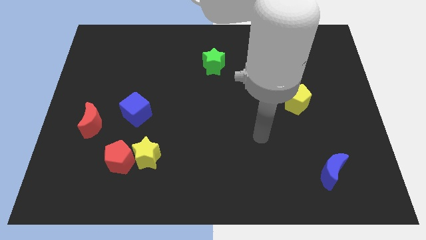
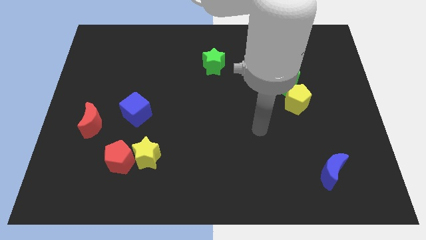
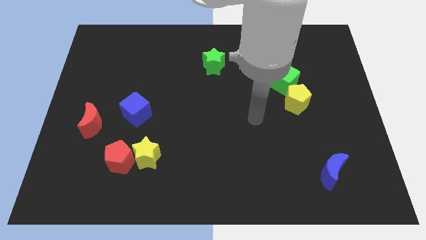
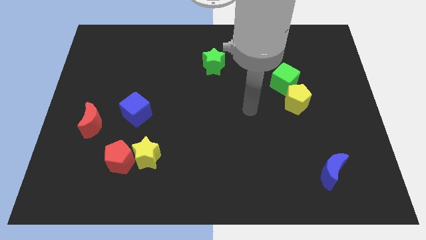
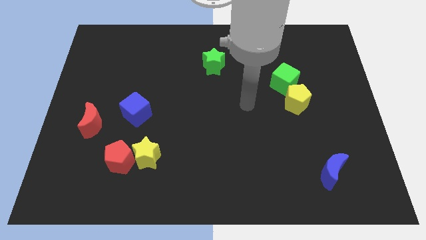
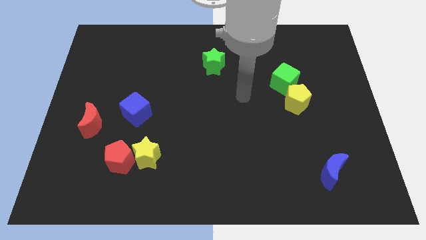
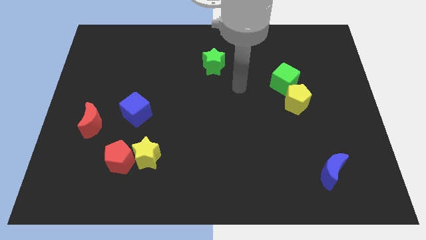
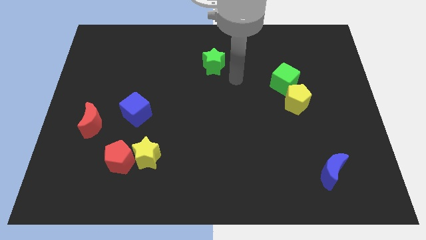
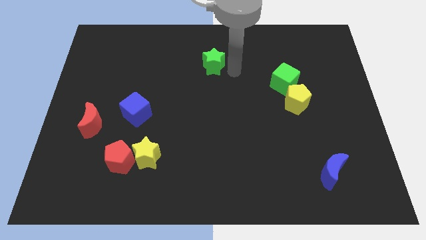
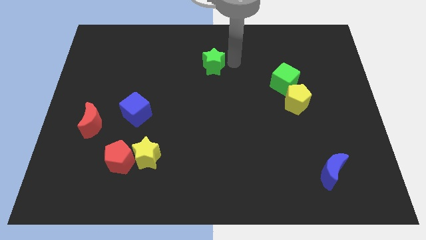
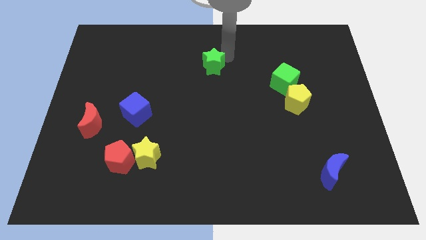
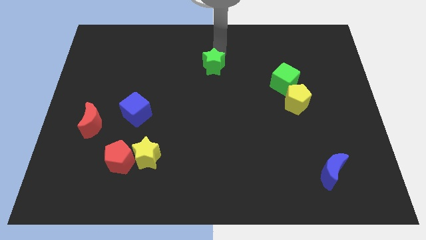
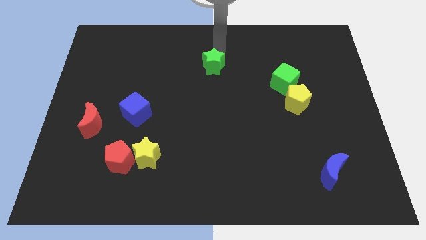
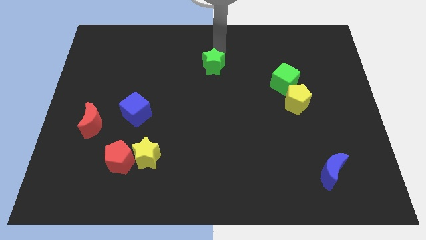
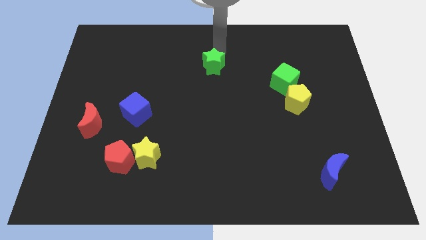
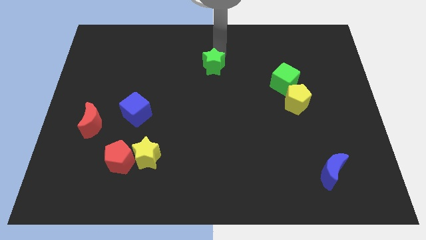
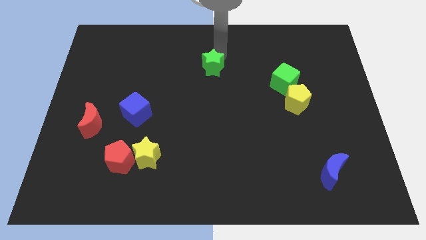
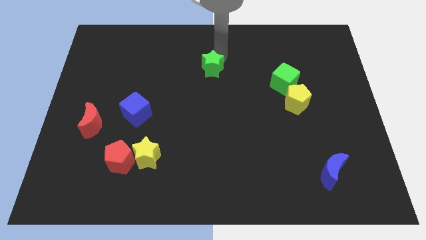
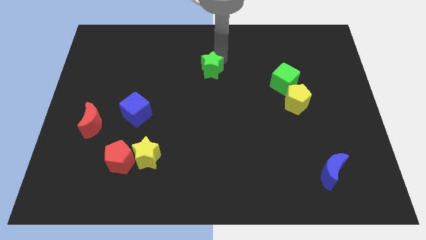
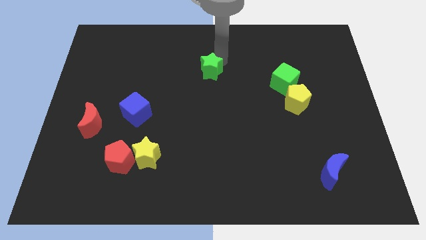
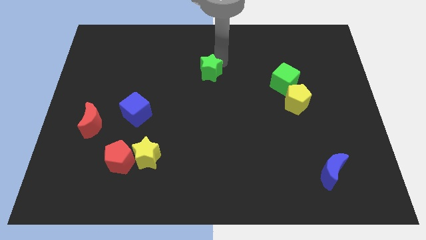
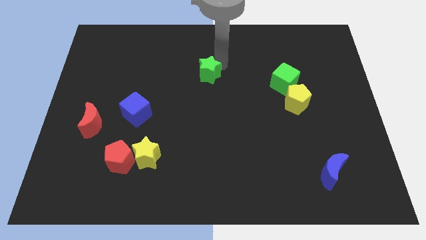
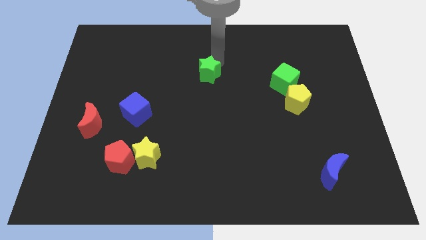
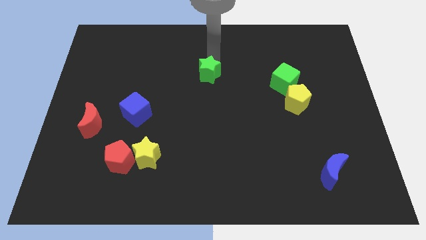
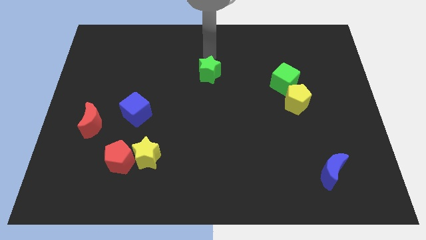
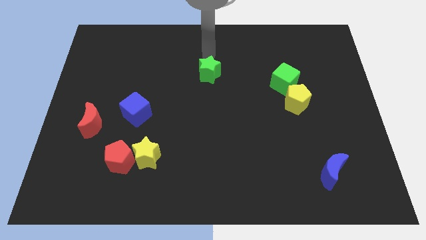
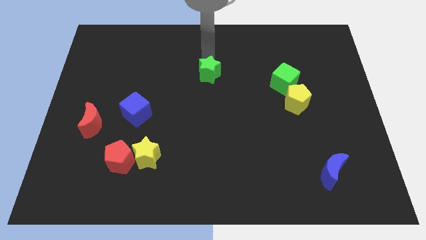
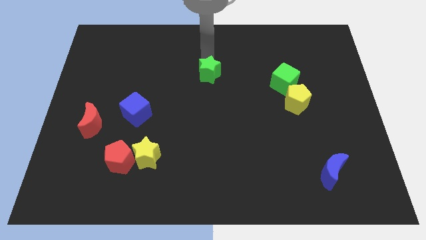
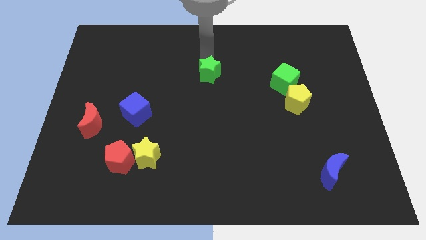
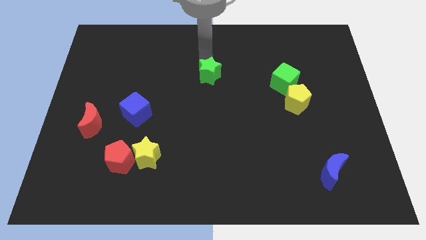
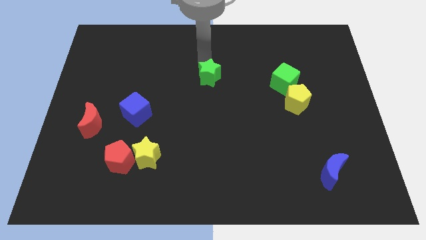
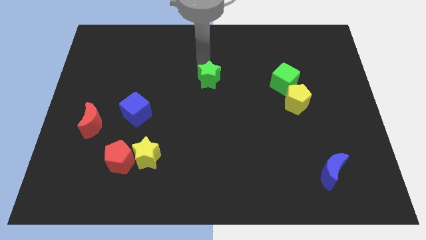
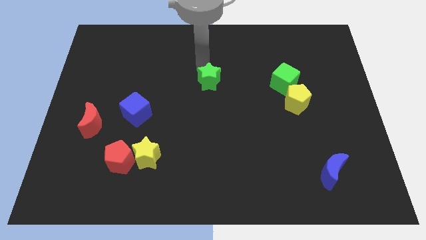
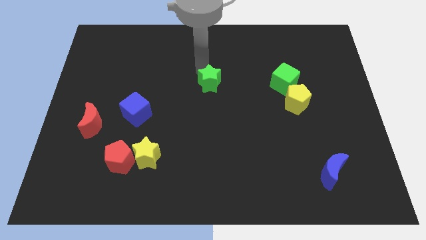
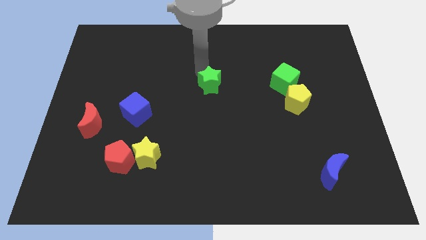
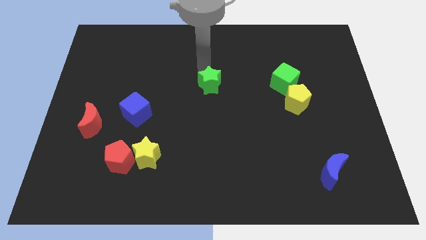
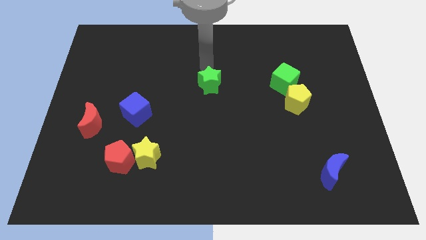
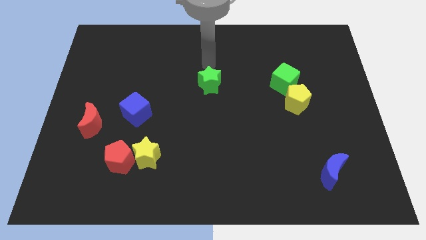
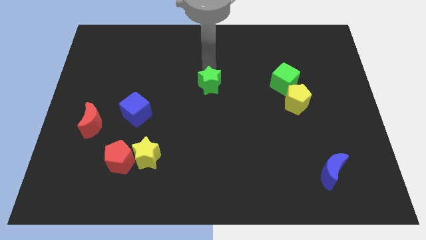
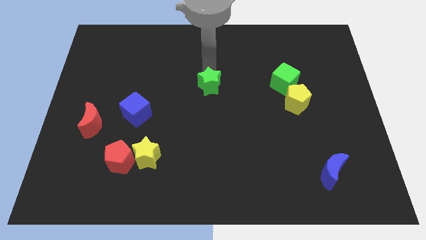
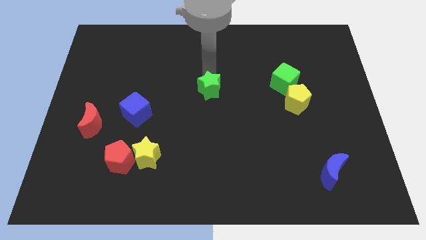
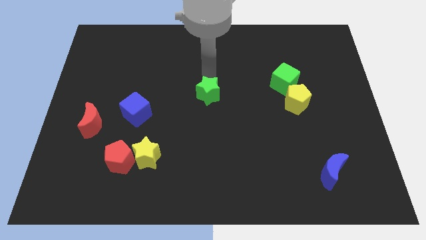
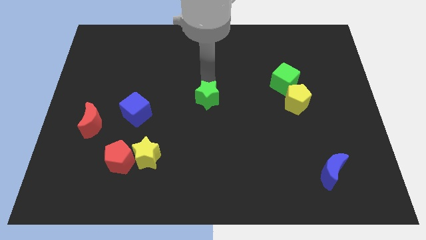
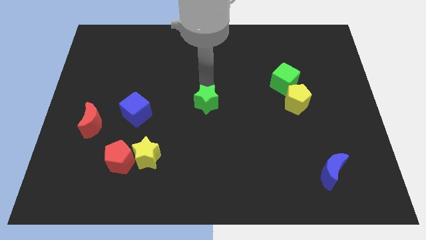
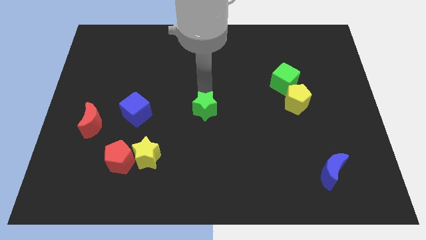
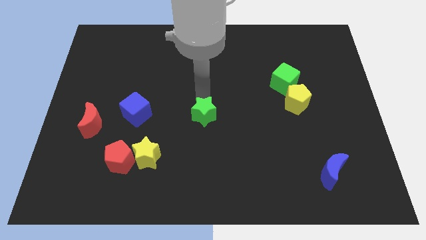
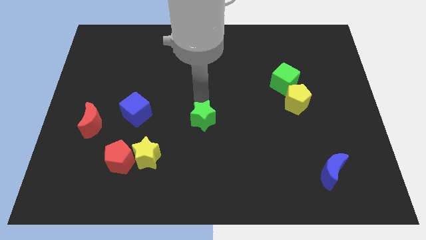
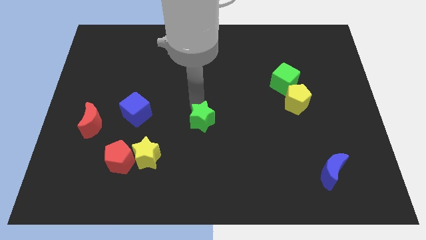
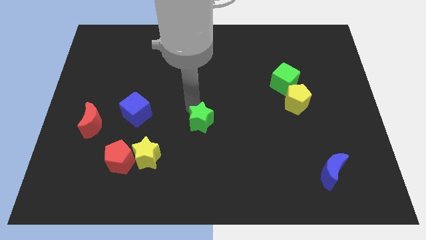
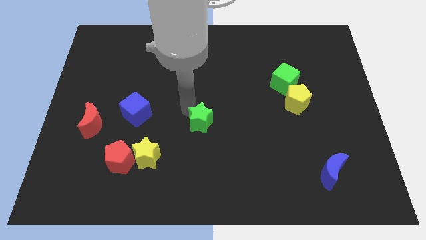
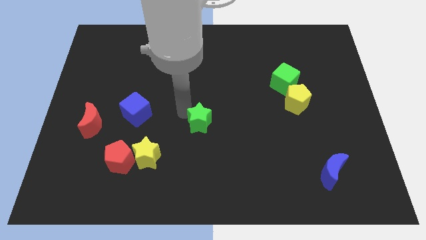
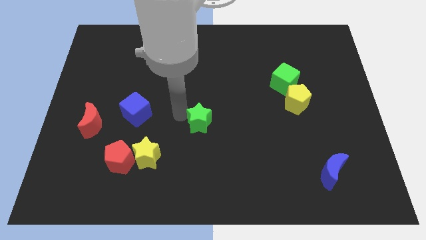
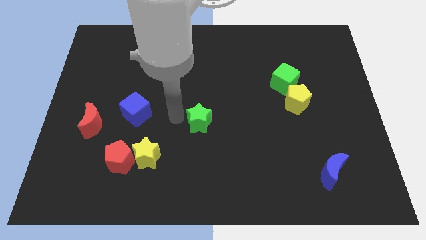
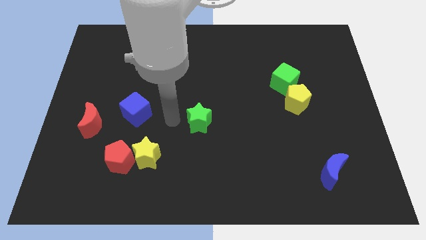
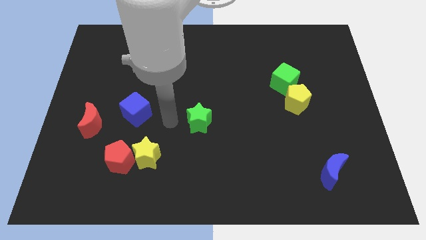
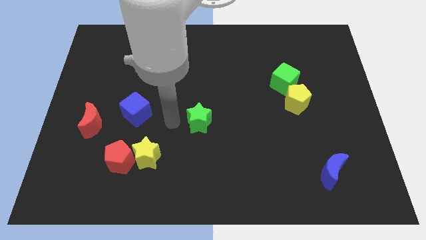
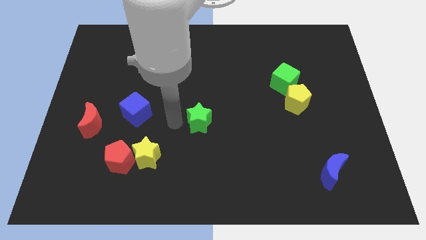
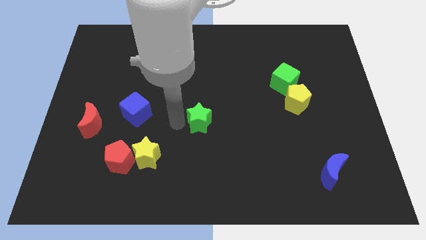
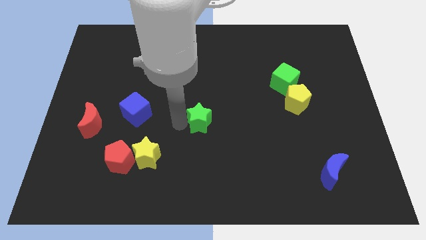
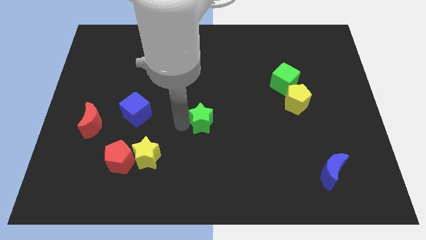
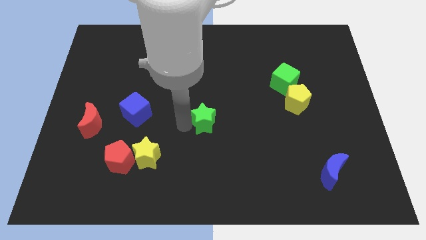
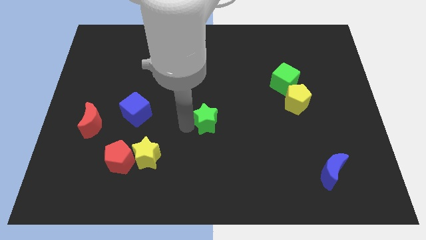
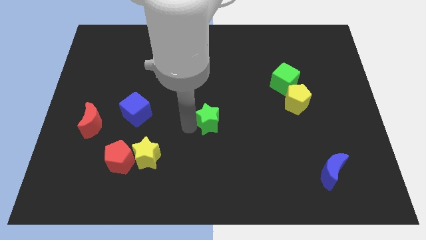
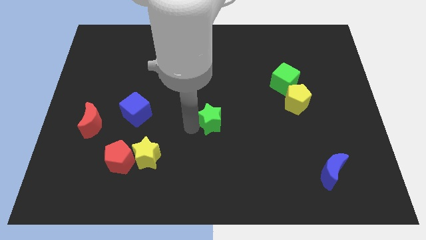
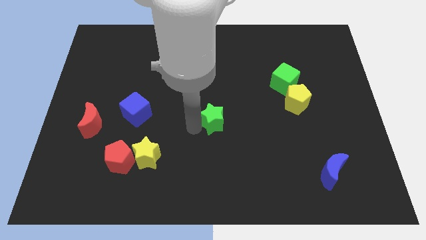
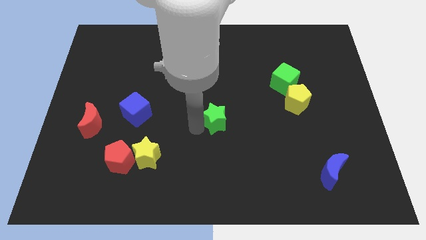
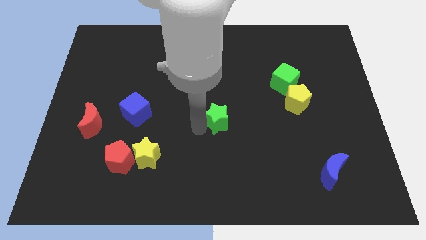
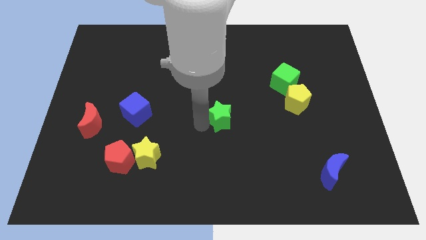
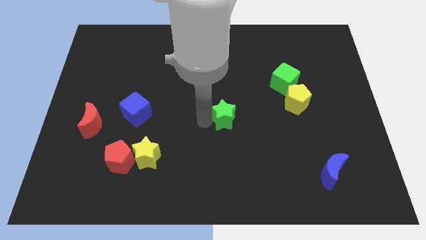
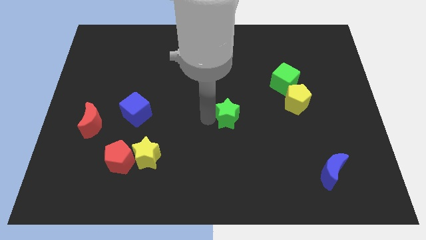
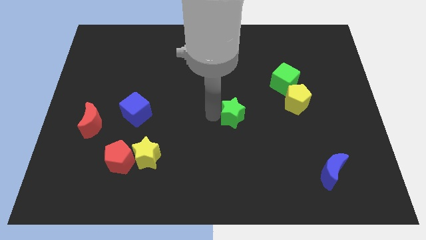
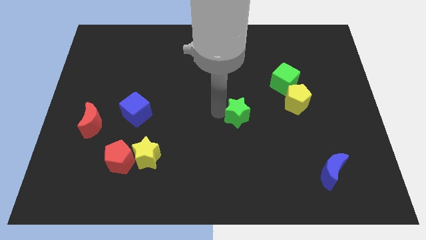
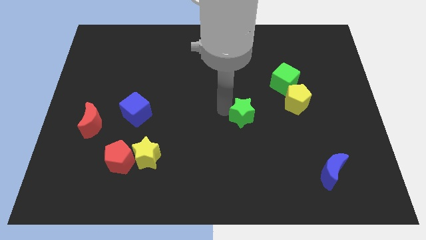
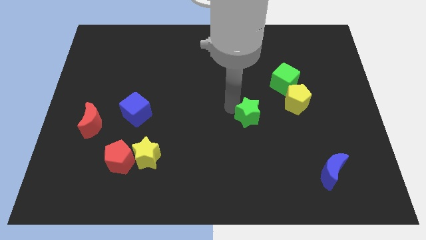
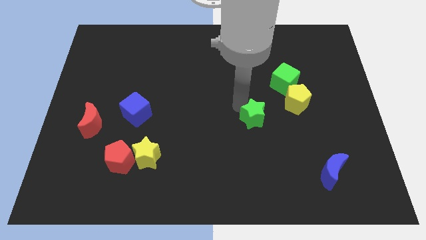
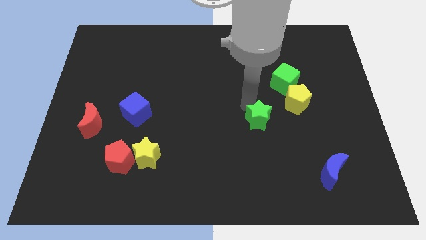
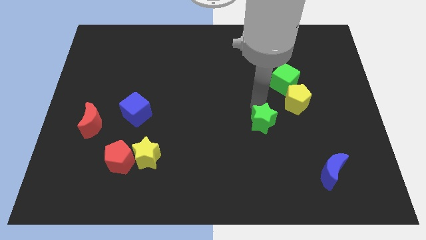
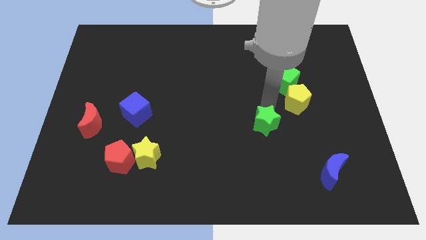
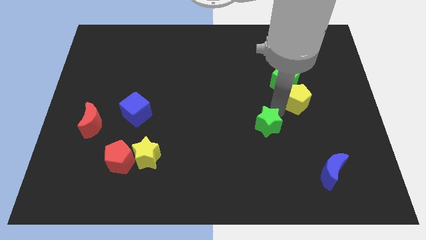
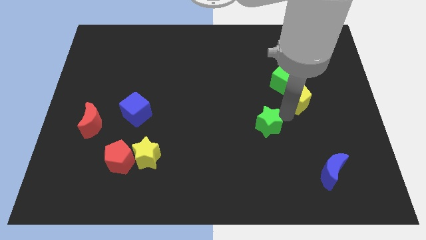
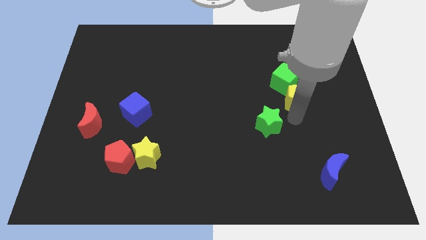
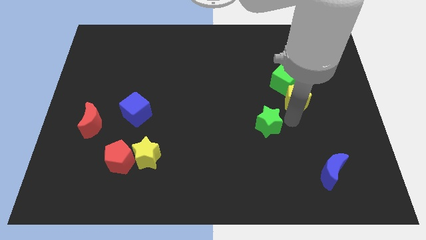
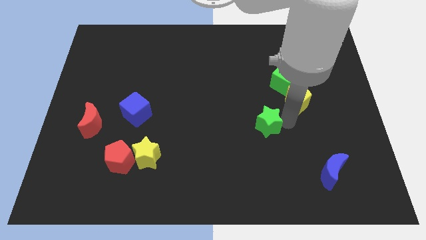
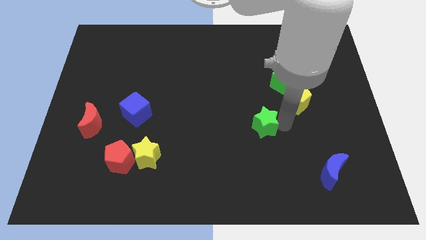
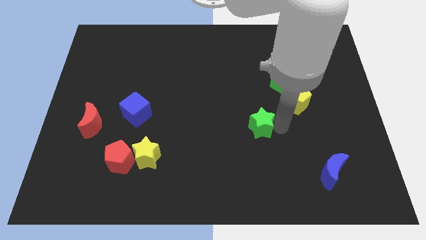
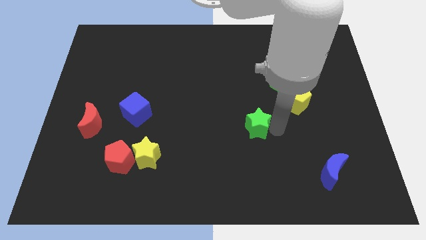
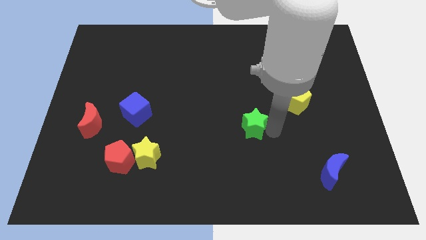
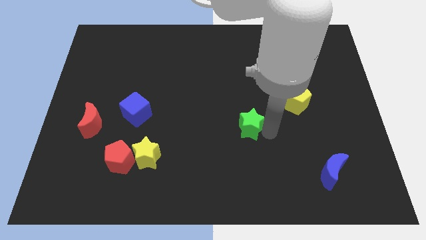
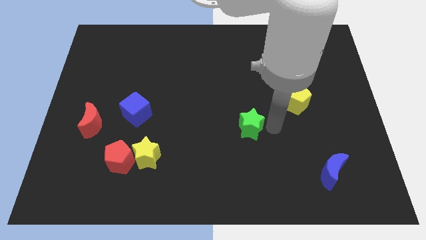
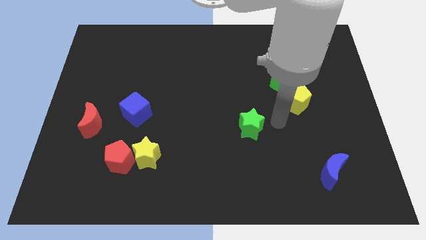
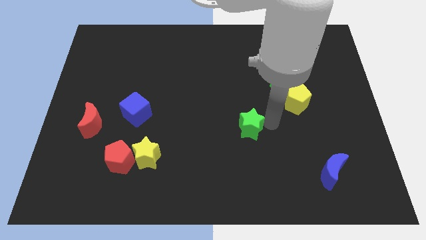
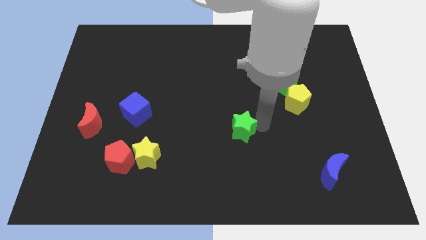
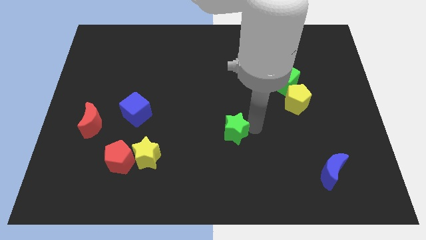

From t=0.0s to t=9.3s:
slide the green star downwards
